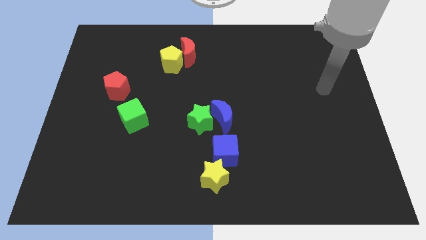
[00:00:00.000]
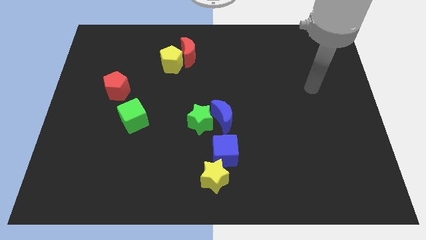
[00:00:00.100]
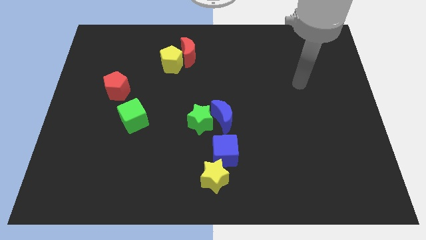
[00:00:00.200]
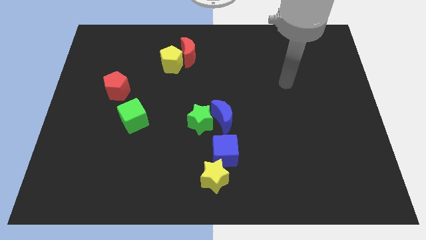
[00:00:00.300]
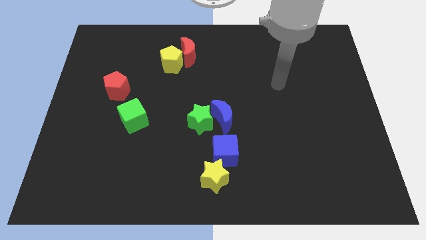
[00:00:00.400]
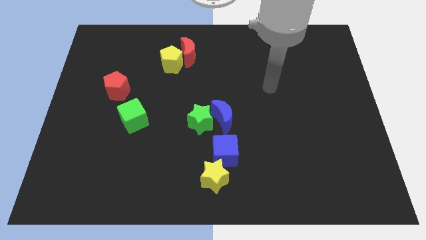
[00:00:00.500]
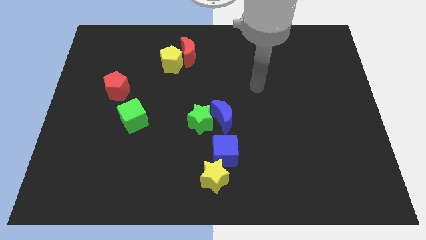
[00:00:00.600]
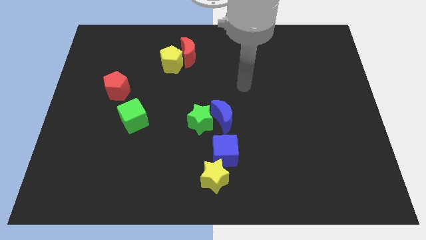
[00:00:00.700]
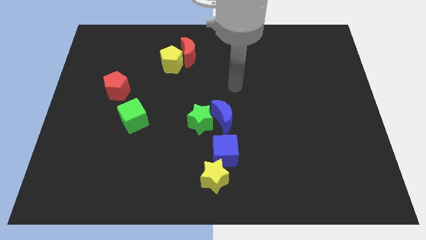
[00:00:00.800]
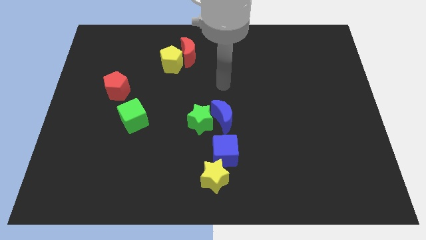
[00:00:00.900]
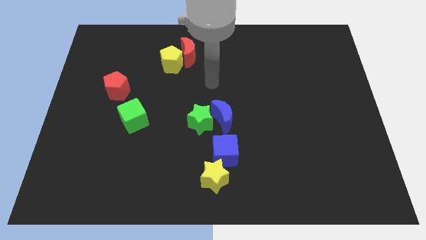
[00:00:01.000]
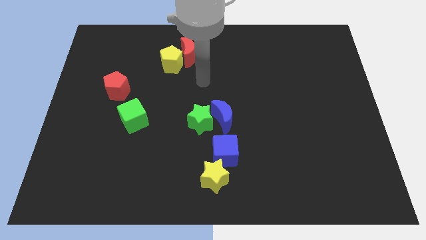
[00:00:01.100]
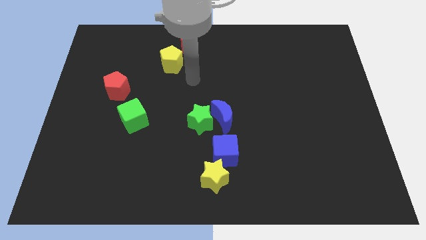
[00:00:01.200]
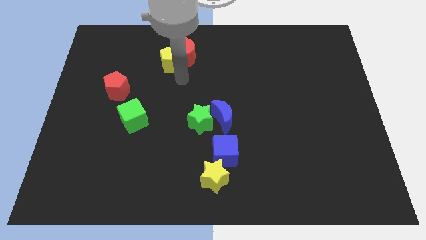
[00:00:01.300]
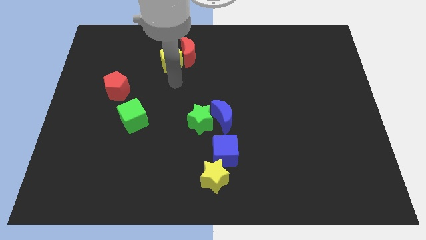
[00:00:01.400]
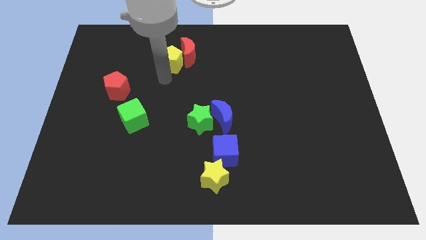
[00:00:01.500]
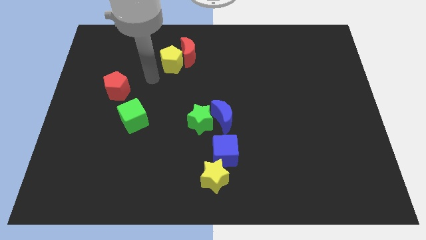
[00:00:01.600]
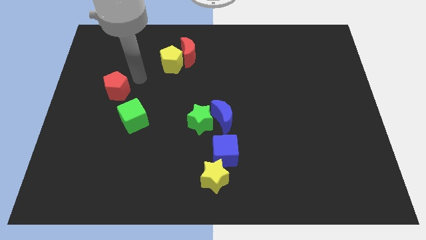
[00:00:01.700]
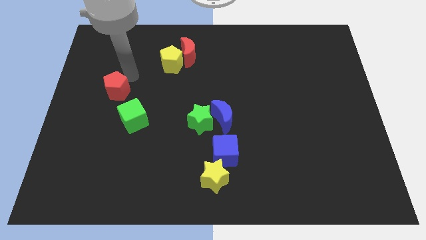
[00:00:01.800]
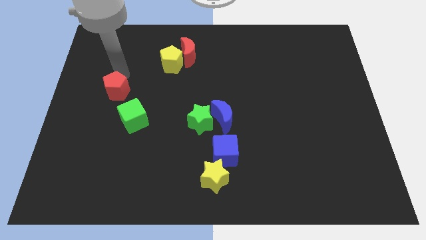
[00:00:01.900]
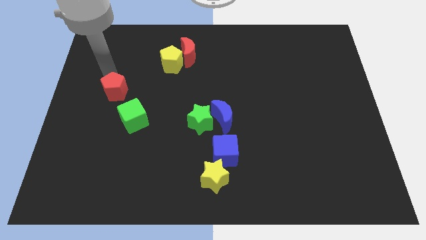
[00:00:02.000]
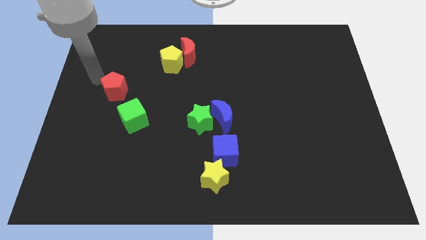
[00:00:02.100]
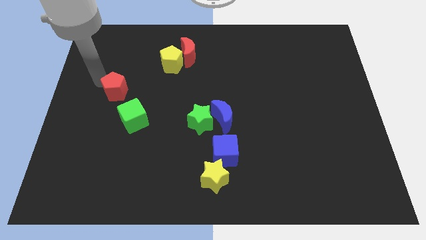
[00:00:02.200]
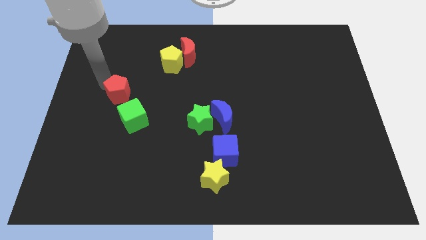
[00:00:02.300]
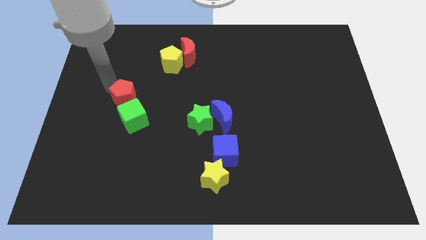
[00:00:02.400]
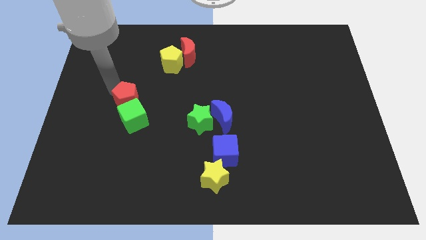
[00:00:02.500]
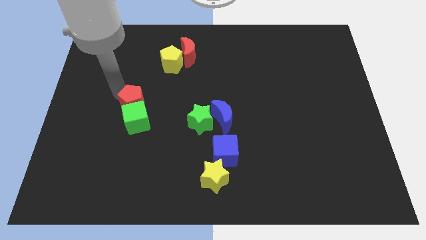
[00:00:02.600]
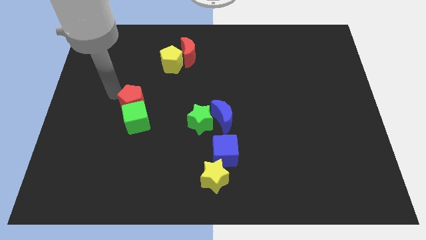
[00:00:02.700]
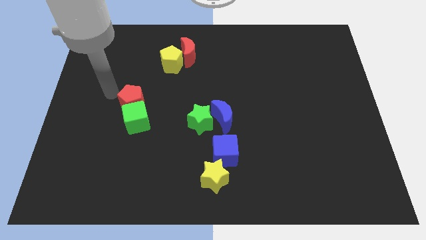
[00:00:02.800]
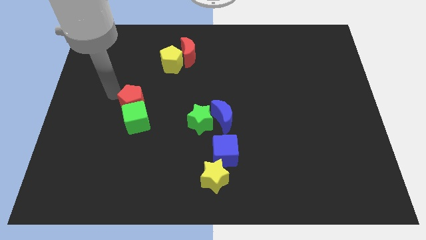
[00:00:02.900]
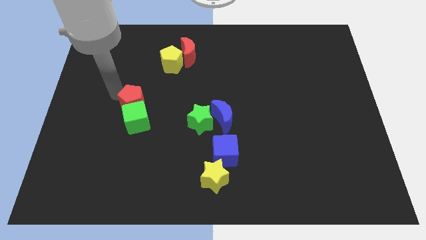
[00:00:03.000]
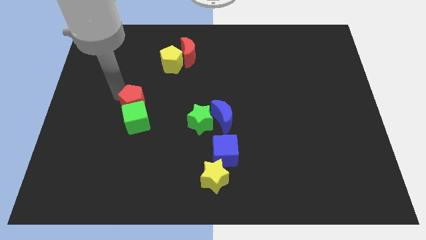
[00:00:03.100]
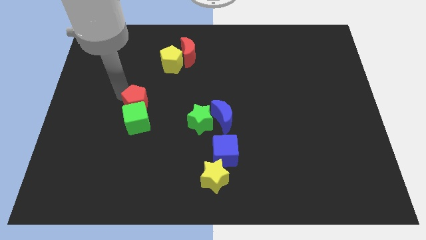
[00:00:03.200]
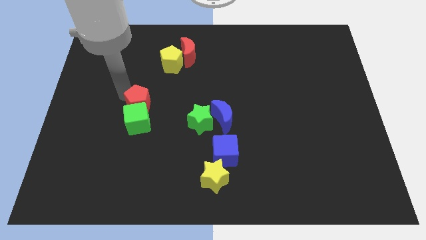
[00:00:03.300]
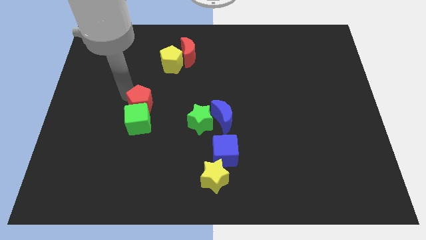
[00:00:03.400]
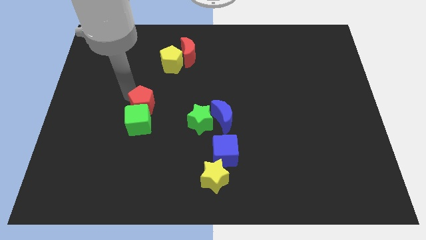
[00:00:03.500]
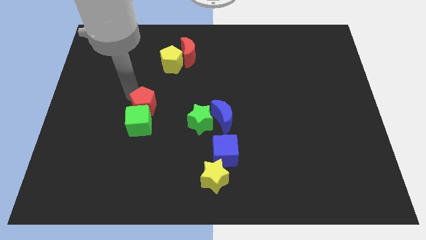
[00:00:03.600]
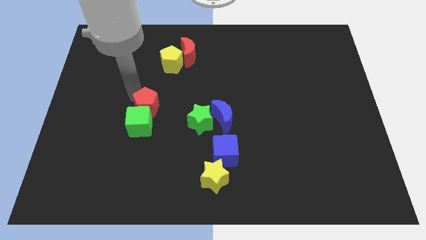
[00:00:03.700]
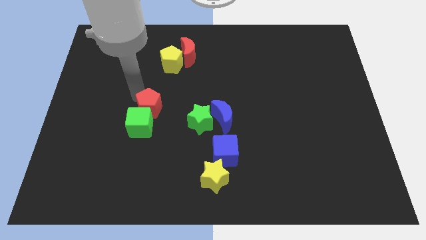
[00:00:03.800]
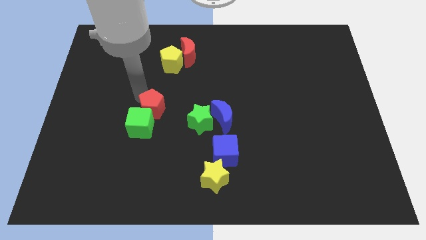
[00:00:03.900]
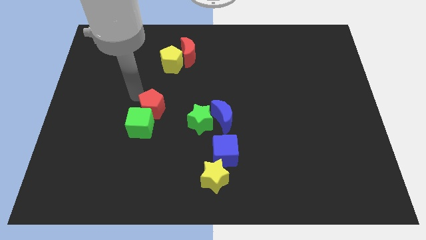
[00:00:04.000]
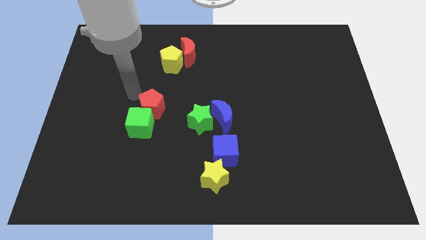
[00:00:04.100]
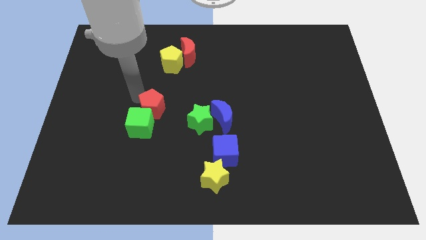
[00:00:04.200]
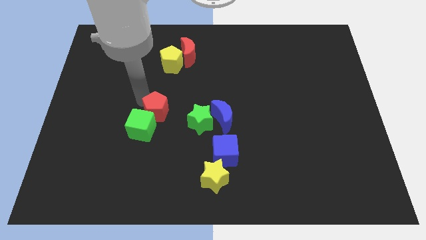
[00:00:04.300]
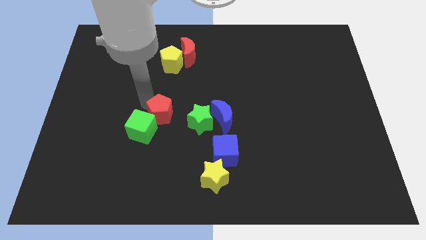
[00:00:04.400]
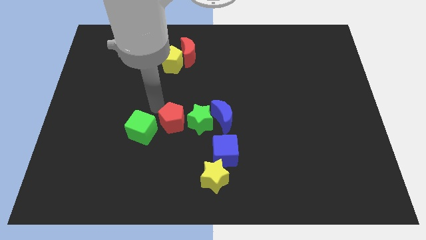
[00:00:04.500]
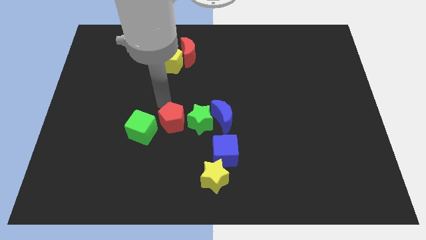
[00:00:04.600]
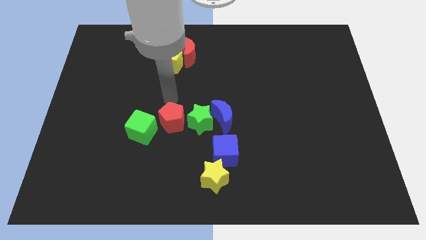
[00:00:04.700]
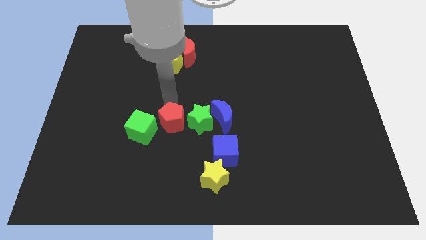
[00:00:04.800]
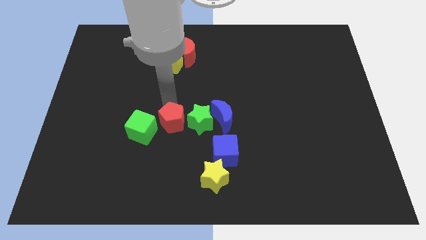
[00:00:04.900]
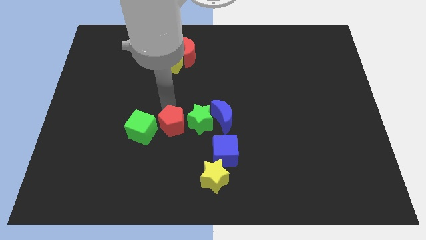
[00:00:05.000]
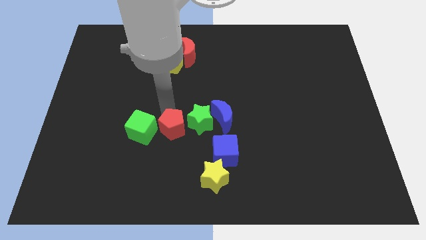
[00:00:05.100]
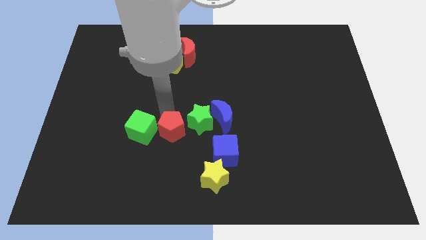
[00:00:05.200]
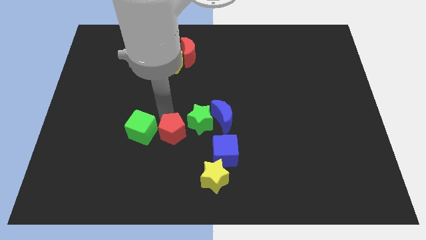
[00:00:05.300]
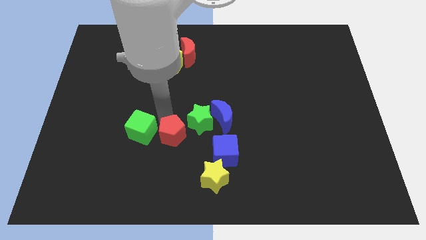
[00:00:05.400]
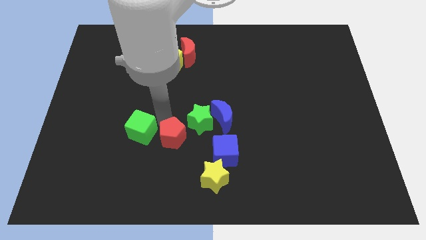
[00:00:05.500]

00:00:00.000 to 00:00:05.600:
slide the red pentagon to the left side of the blue cube
